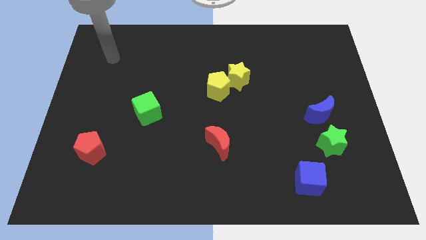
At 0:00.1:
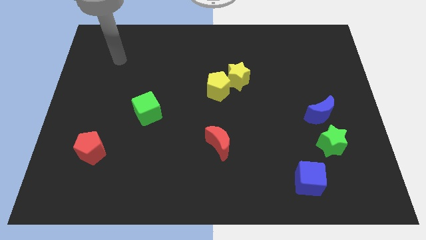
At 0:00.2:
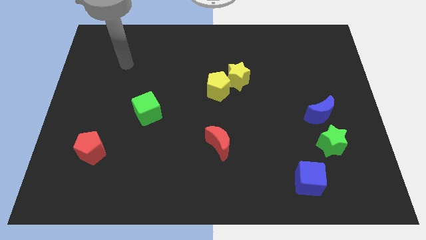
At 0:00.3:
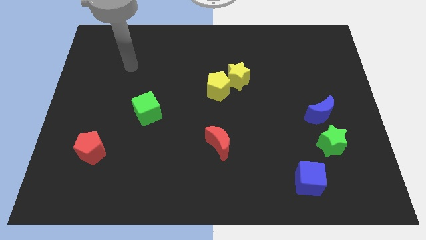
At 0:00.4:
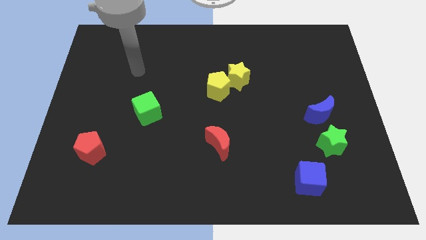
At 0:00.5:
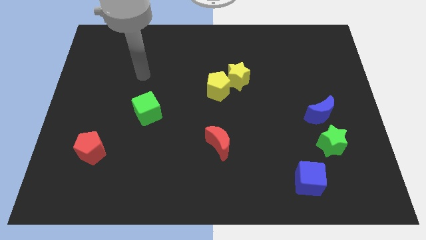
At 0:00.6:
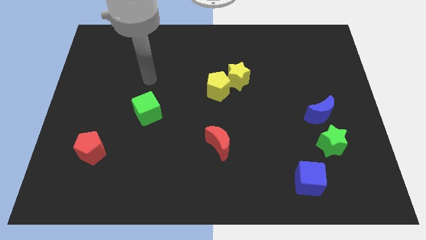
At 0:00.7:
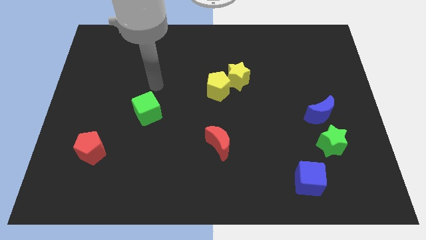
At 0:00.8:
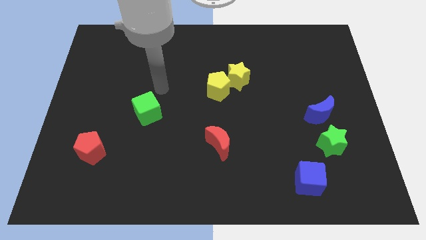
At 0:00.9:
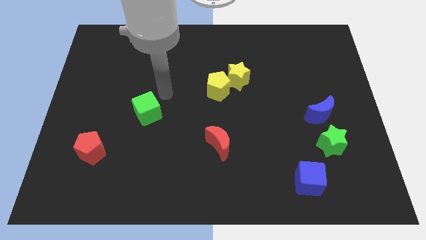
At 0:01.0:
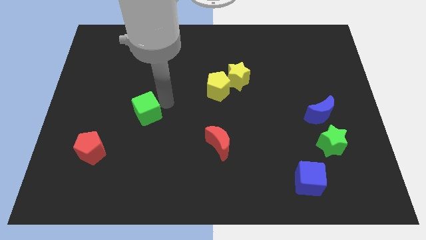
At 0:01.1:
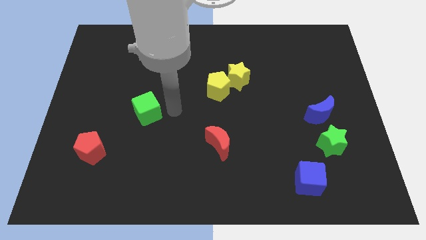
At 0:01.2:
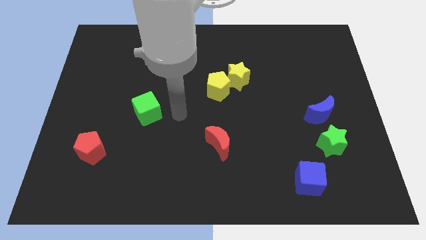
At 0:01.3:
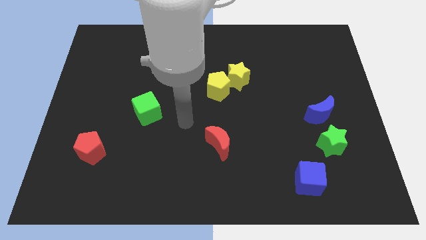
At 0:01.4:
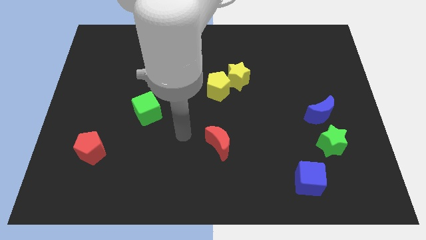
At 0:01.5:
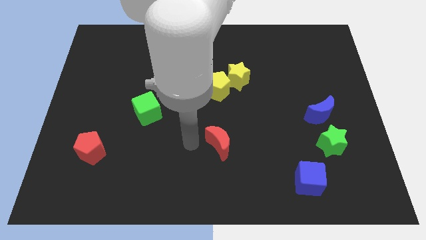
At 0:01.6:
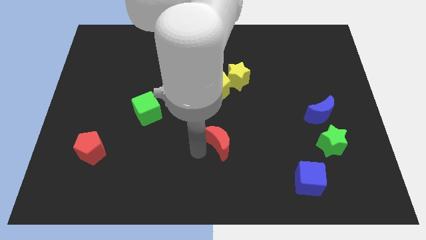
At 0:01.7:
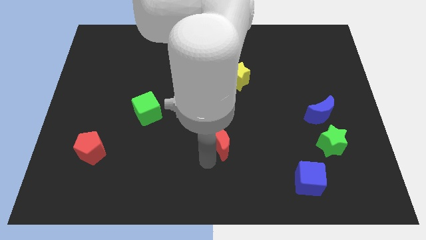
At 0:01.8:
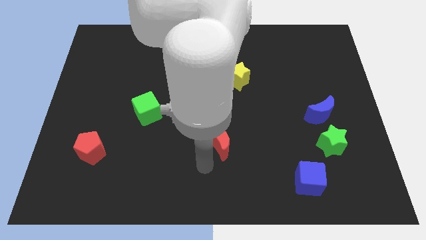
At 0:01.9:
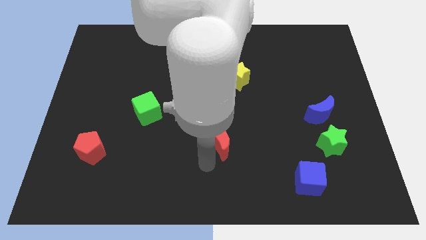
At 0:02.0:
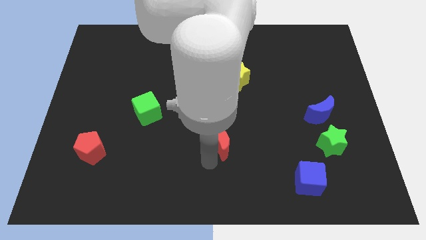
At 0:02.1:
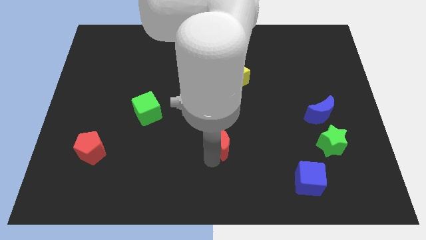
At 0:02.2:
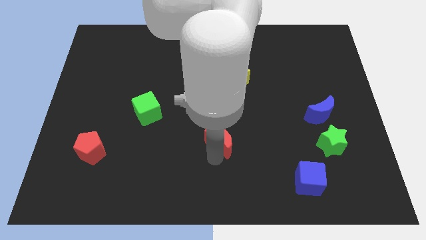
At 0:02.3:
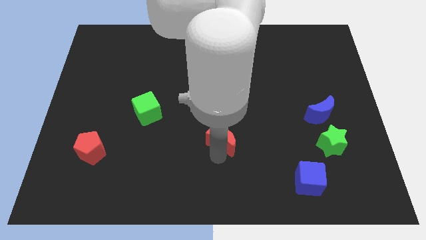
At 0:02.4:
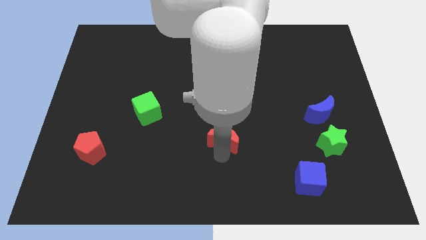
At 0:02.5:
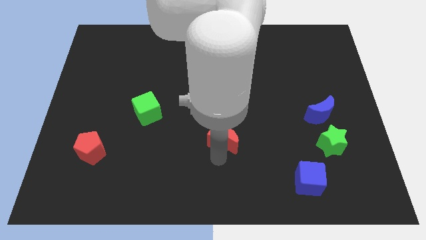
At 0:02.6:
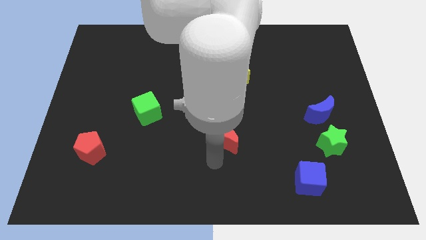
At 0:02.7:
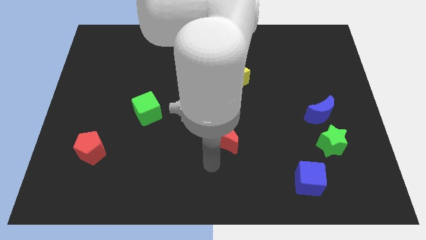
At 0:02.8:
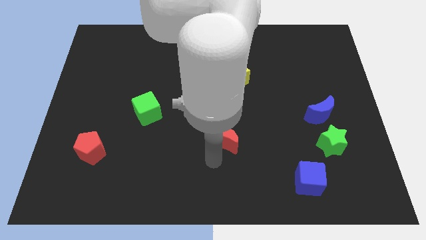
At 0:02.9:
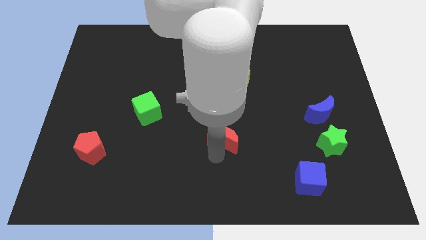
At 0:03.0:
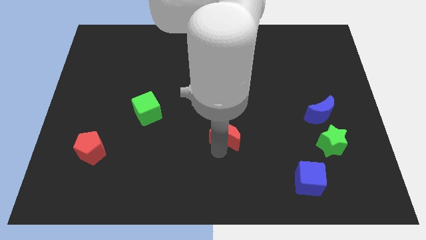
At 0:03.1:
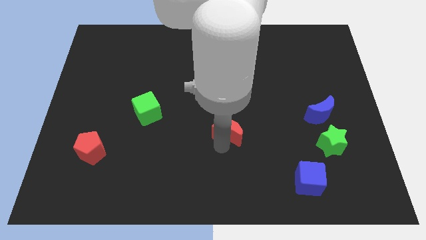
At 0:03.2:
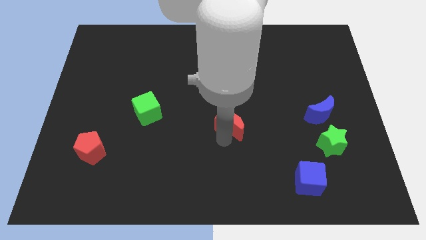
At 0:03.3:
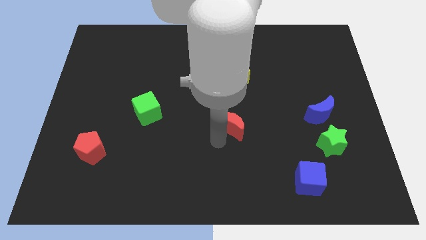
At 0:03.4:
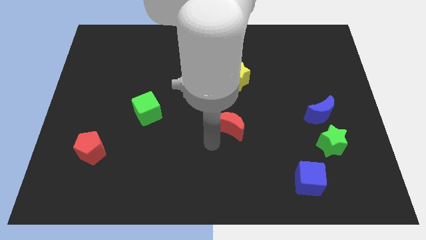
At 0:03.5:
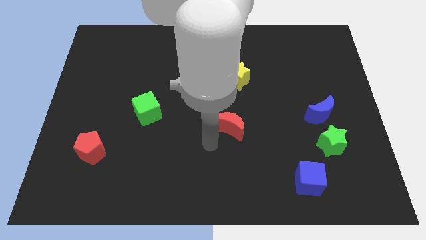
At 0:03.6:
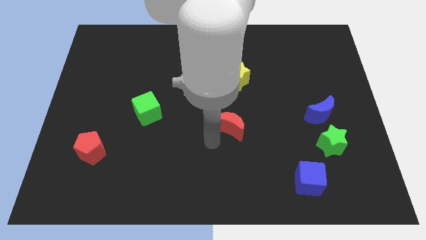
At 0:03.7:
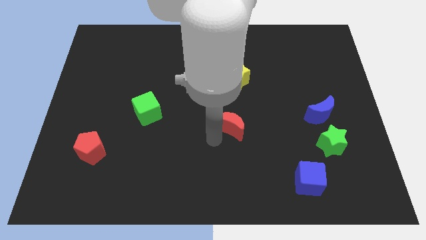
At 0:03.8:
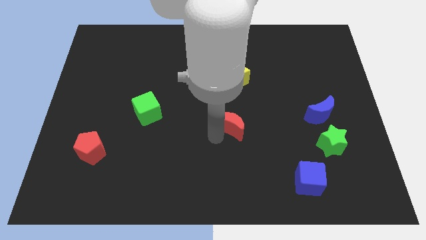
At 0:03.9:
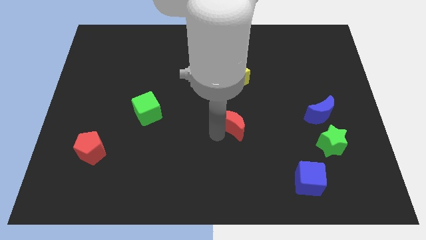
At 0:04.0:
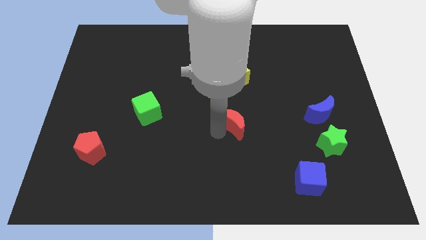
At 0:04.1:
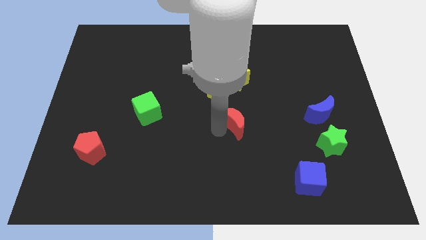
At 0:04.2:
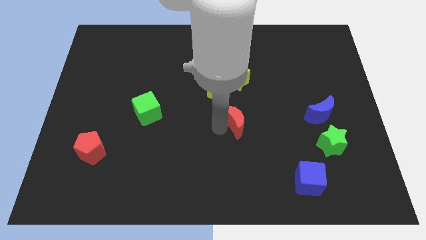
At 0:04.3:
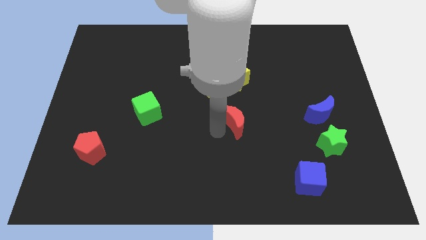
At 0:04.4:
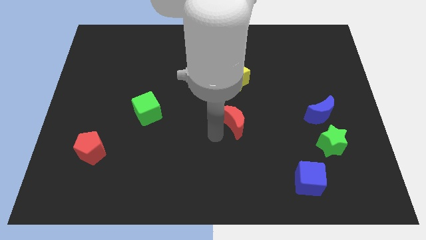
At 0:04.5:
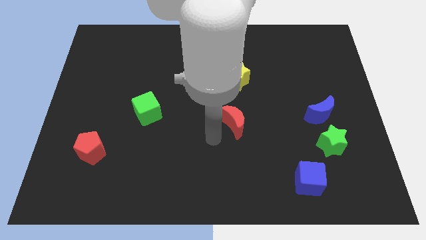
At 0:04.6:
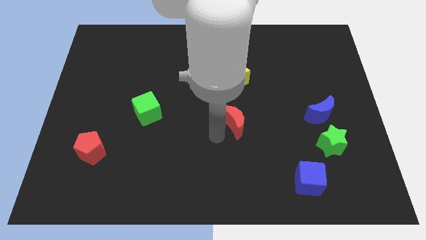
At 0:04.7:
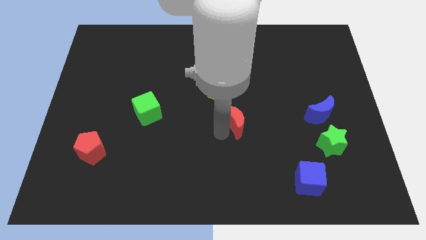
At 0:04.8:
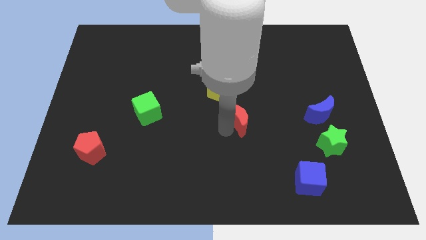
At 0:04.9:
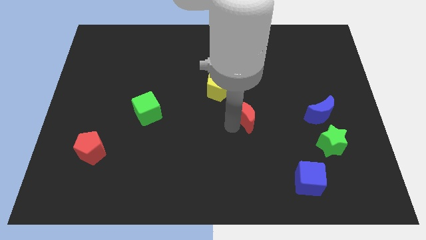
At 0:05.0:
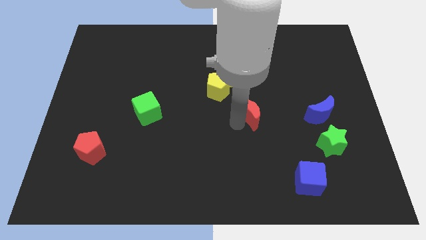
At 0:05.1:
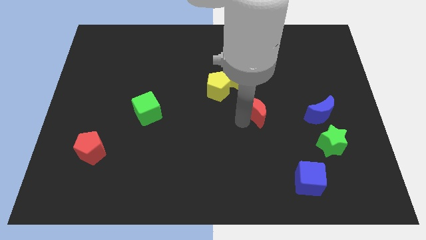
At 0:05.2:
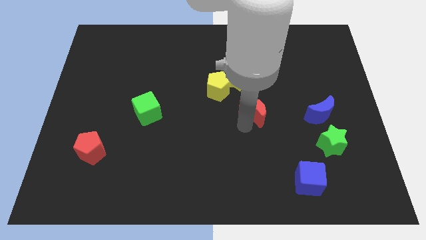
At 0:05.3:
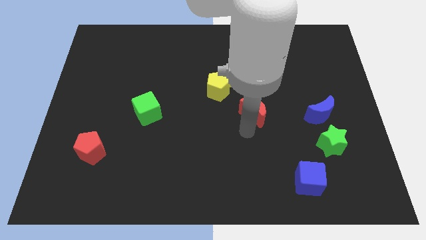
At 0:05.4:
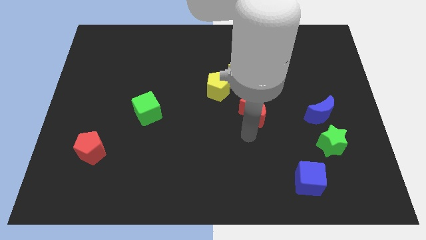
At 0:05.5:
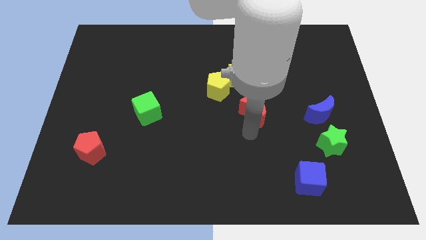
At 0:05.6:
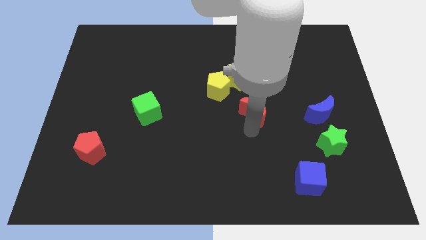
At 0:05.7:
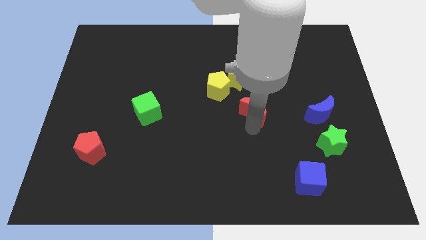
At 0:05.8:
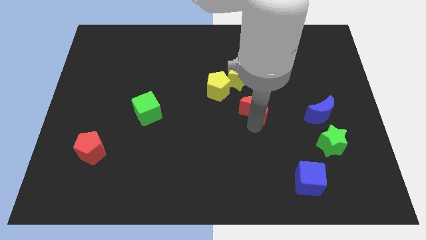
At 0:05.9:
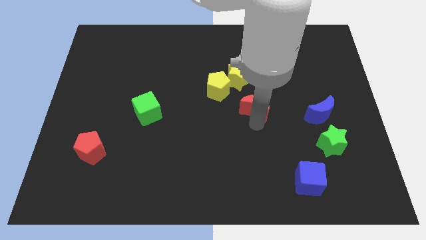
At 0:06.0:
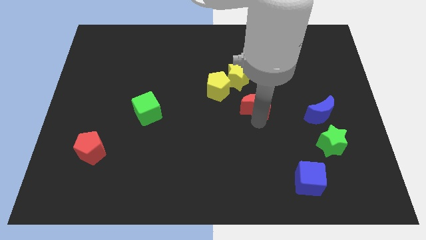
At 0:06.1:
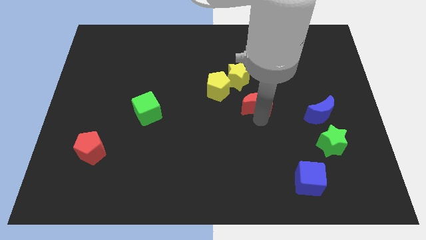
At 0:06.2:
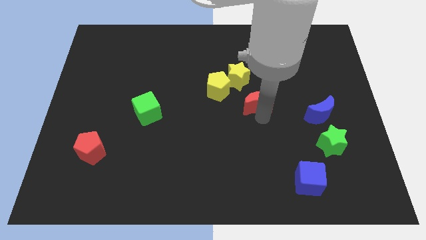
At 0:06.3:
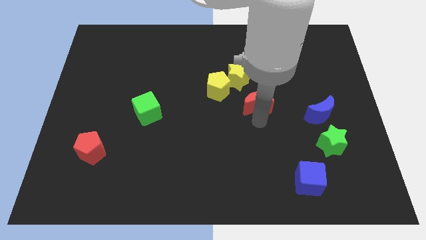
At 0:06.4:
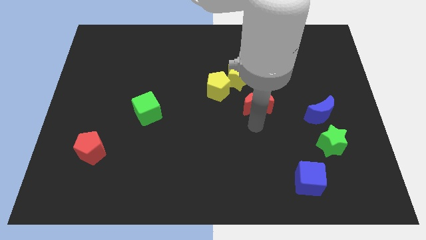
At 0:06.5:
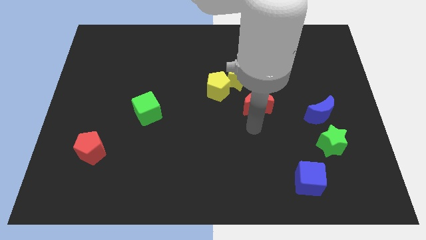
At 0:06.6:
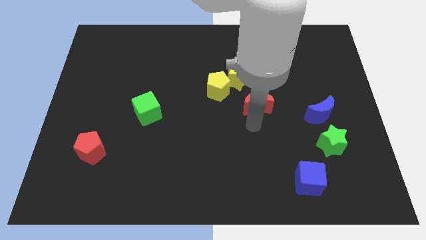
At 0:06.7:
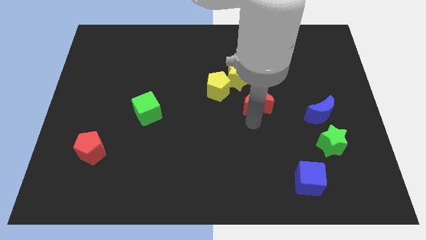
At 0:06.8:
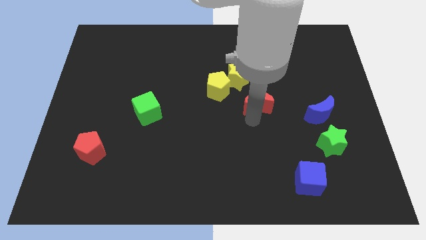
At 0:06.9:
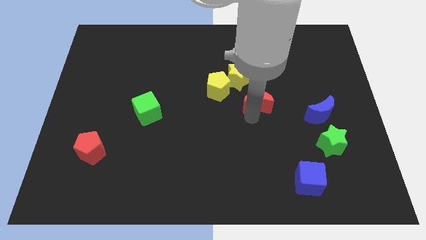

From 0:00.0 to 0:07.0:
push the red moon right of the yellow pentagon

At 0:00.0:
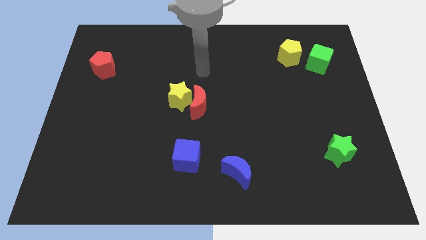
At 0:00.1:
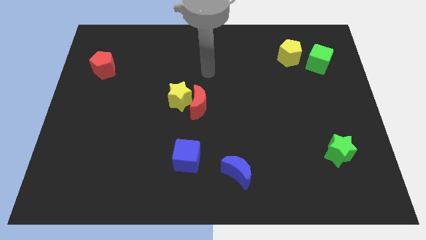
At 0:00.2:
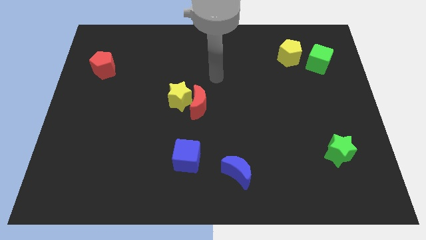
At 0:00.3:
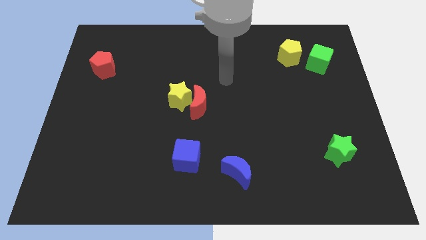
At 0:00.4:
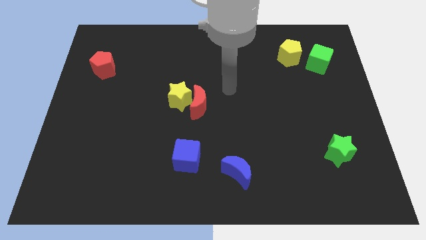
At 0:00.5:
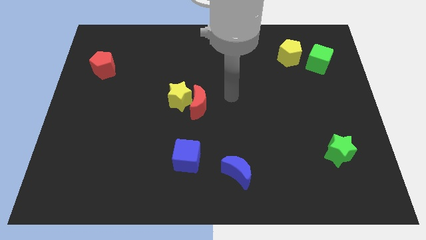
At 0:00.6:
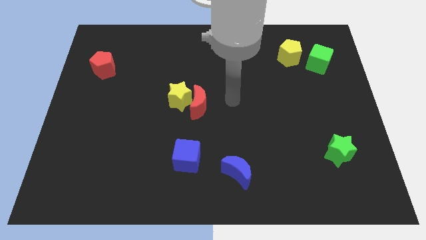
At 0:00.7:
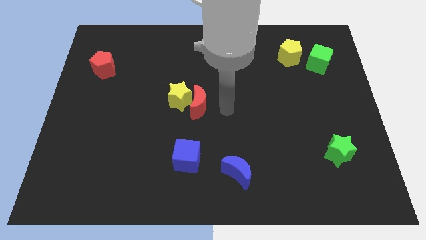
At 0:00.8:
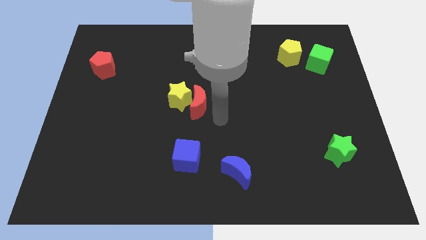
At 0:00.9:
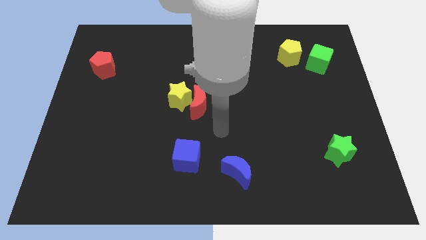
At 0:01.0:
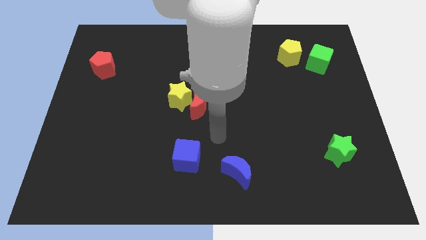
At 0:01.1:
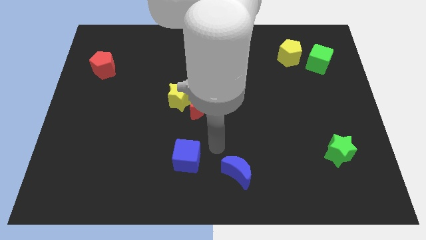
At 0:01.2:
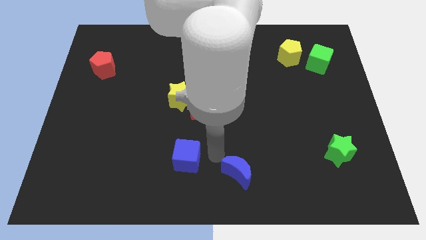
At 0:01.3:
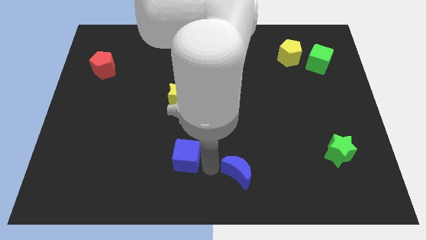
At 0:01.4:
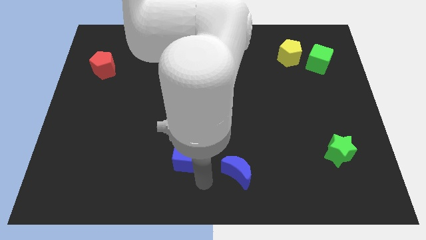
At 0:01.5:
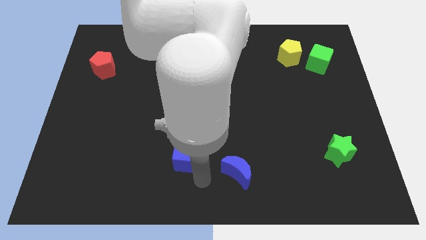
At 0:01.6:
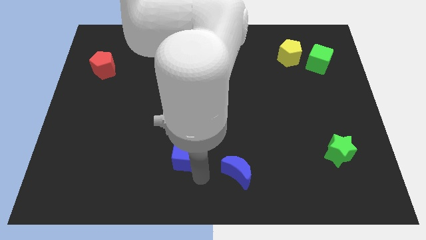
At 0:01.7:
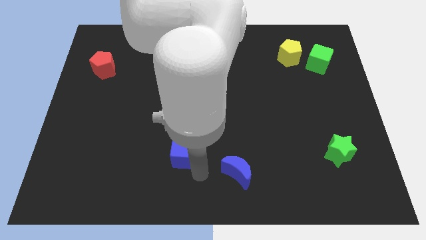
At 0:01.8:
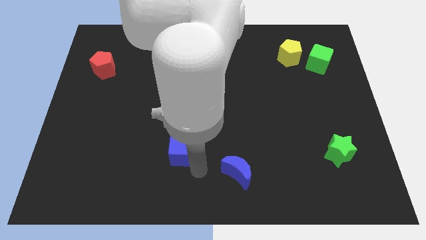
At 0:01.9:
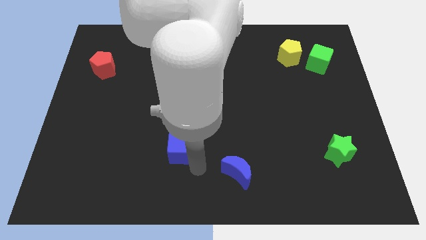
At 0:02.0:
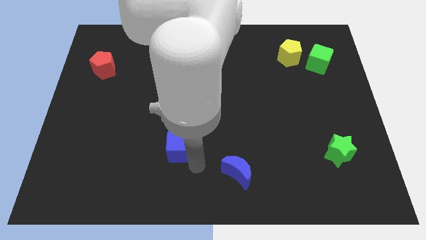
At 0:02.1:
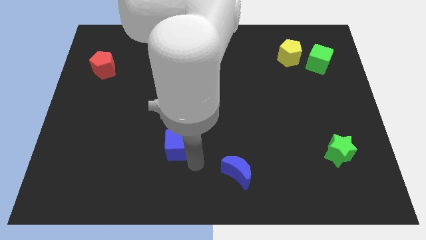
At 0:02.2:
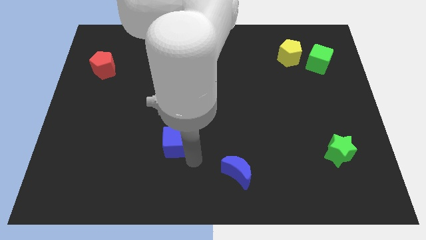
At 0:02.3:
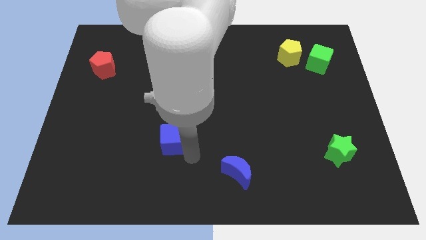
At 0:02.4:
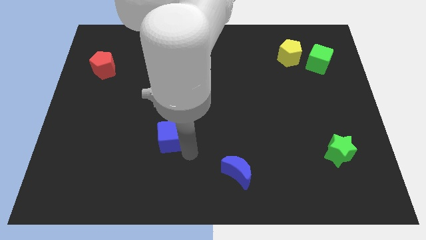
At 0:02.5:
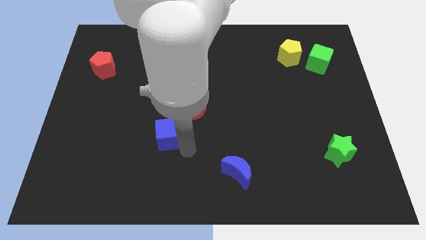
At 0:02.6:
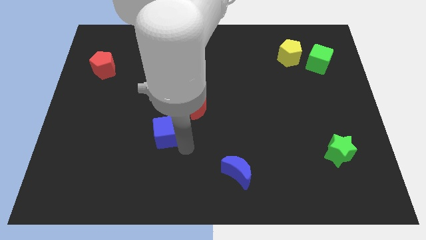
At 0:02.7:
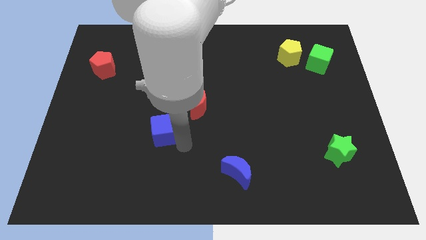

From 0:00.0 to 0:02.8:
put the blue cube diagonally down and to the left of the yellow star
